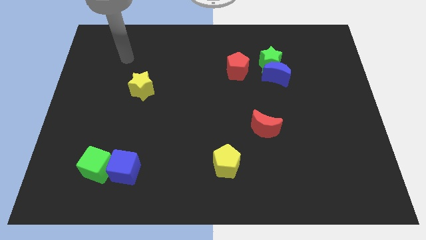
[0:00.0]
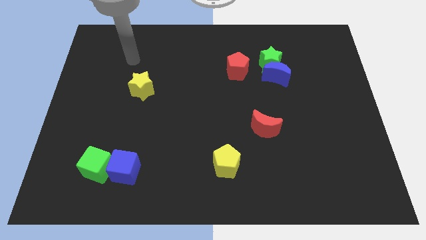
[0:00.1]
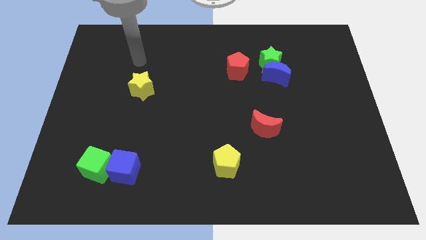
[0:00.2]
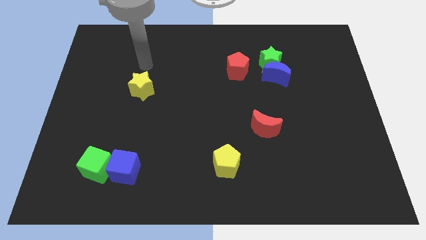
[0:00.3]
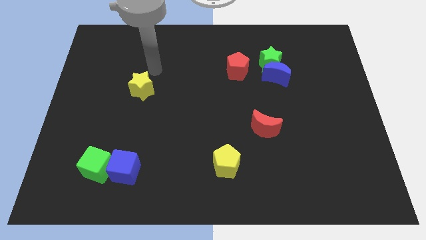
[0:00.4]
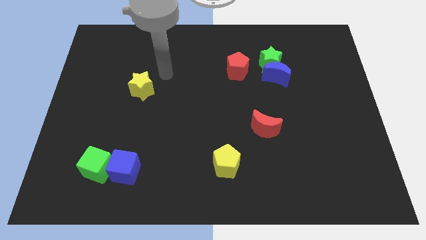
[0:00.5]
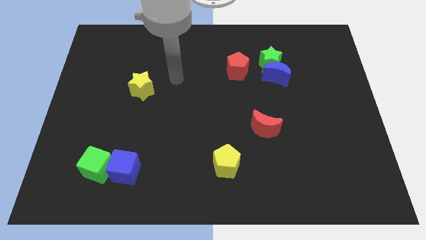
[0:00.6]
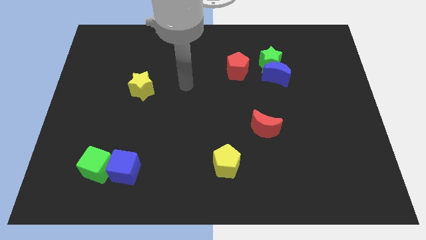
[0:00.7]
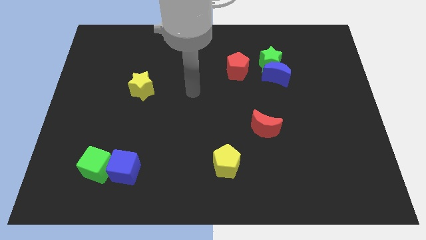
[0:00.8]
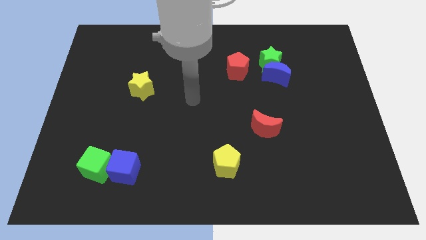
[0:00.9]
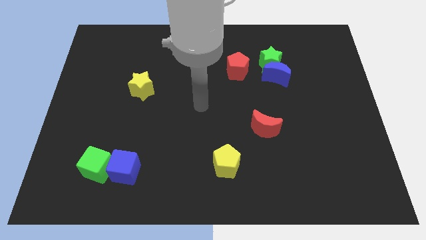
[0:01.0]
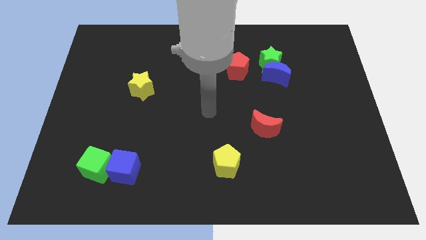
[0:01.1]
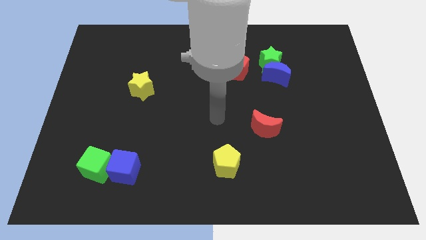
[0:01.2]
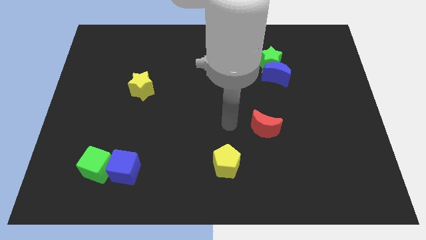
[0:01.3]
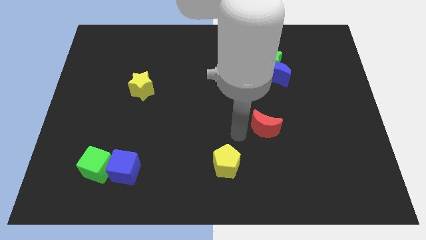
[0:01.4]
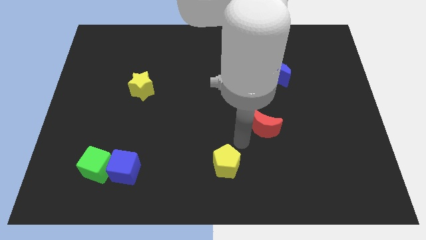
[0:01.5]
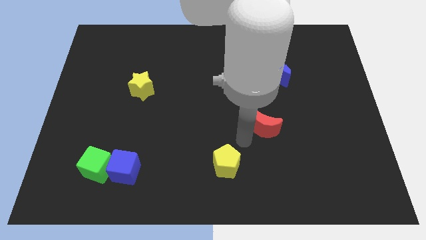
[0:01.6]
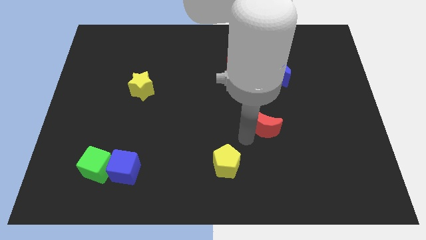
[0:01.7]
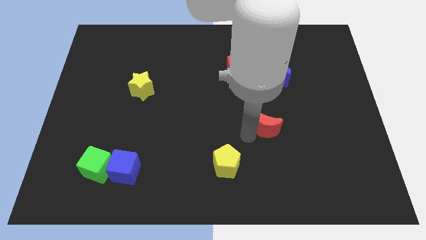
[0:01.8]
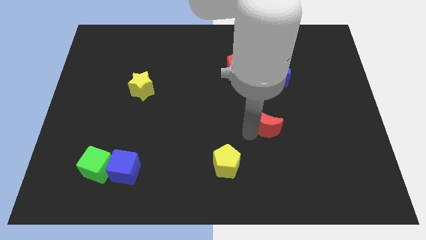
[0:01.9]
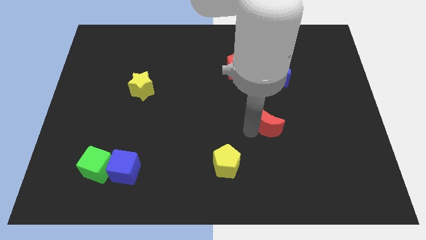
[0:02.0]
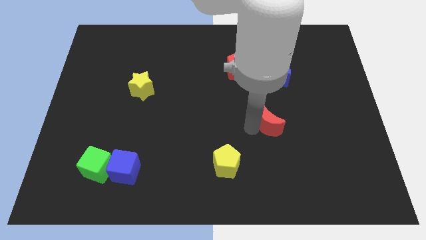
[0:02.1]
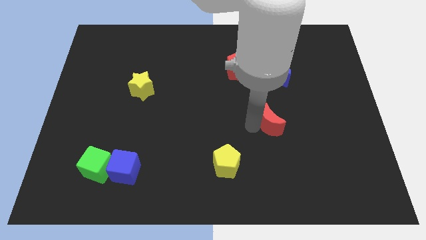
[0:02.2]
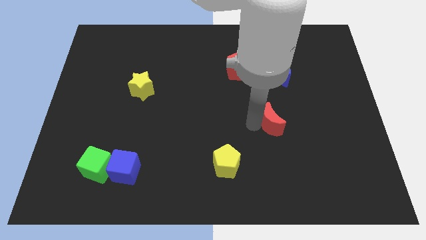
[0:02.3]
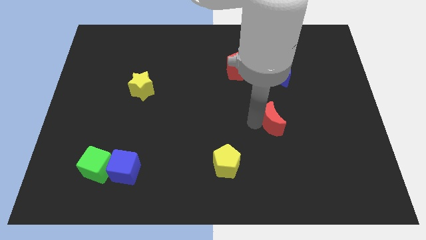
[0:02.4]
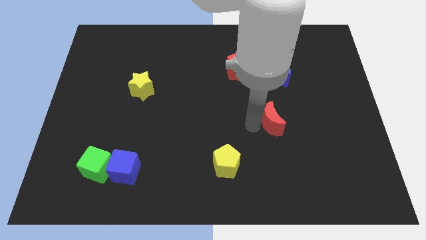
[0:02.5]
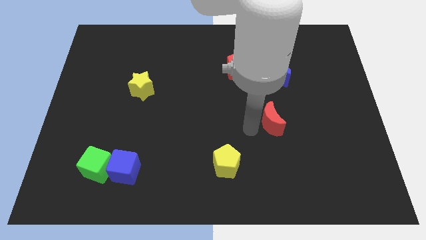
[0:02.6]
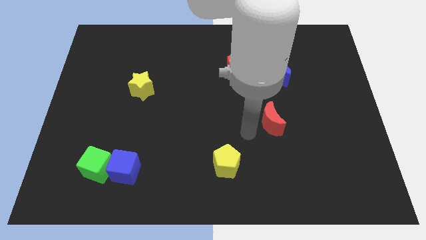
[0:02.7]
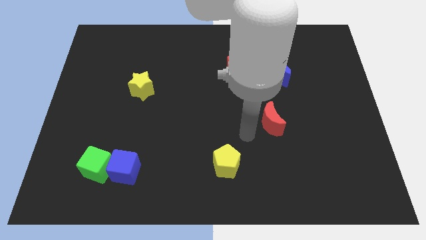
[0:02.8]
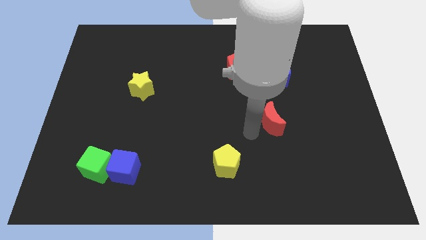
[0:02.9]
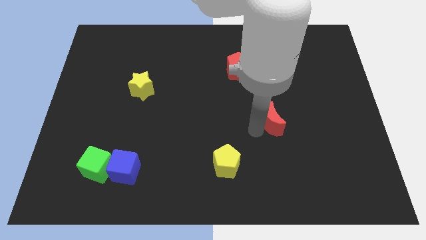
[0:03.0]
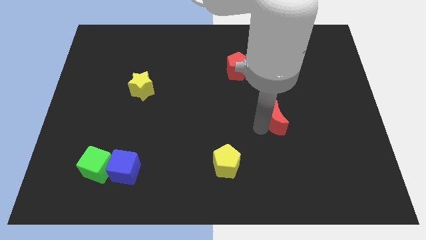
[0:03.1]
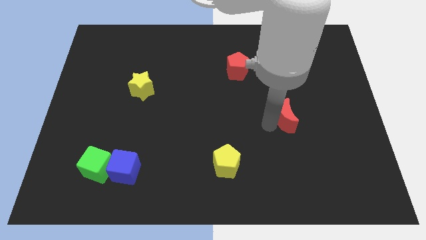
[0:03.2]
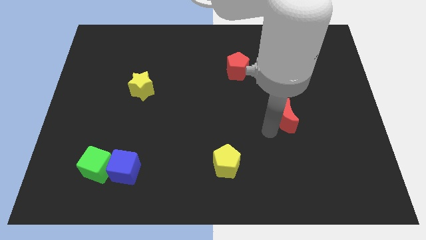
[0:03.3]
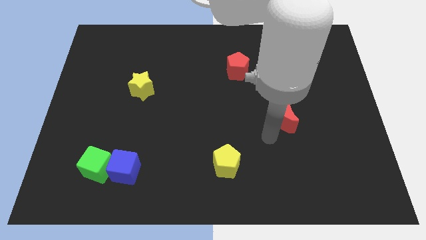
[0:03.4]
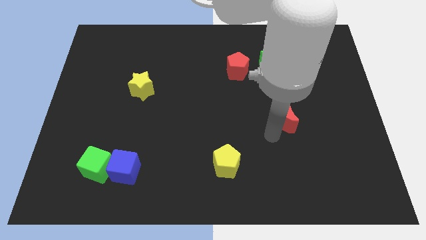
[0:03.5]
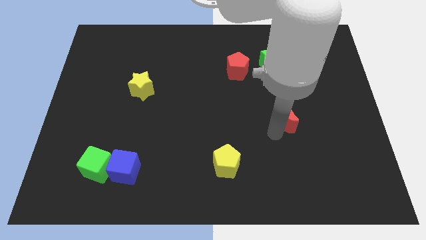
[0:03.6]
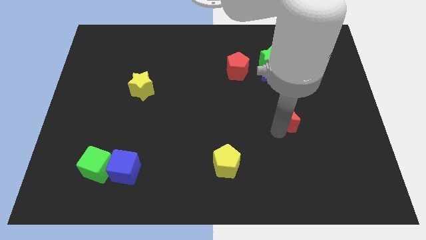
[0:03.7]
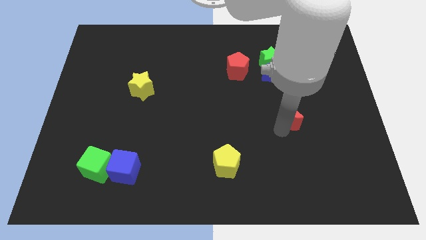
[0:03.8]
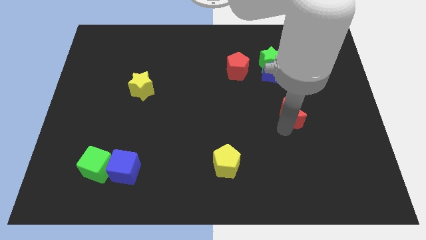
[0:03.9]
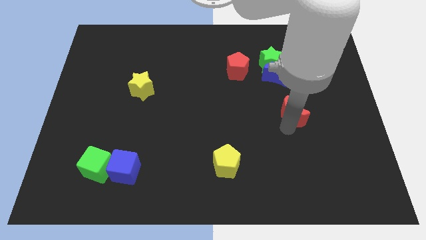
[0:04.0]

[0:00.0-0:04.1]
slide the red moon slightly upwards and right diagonally

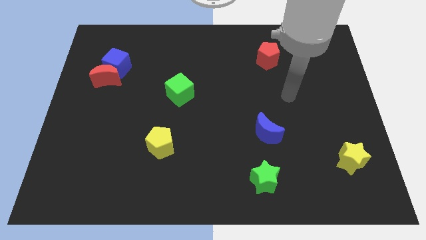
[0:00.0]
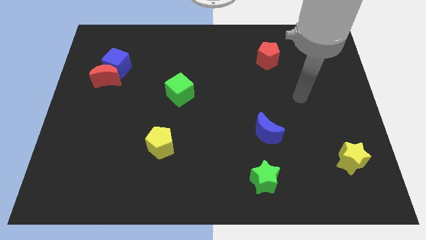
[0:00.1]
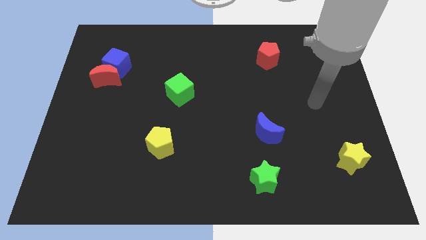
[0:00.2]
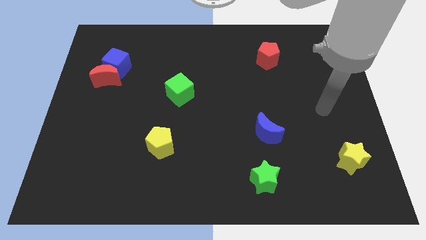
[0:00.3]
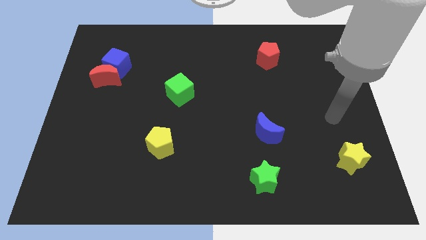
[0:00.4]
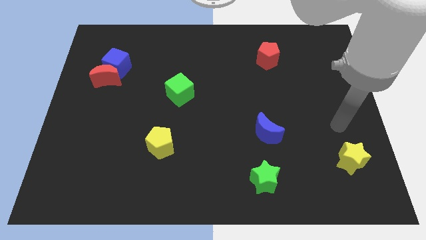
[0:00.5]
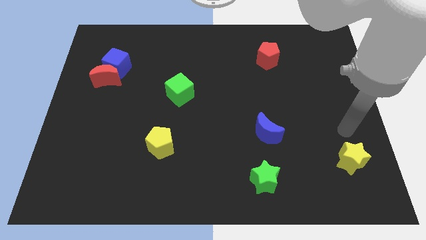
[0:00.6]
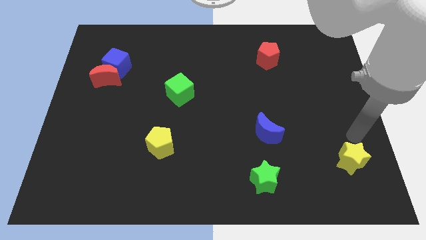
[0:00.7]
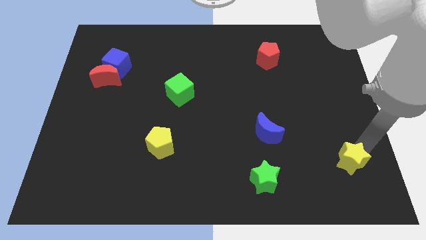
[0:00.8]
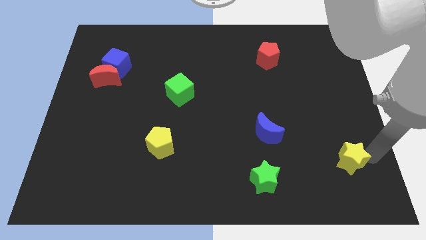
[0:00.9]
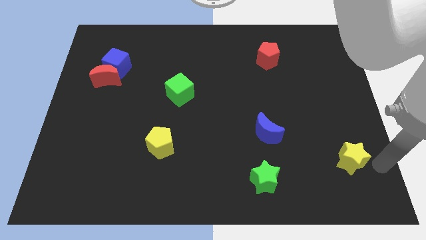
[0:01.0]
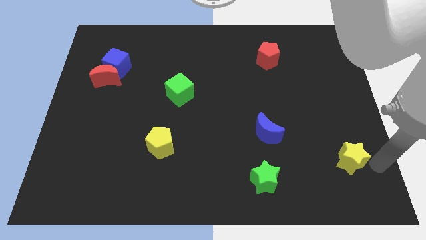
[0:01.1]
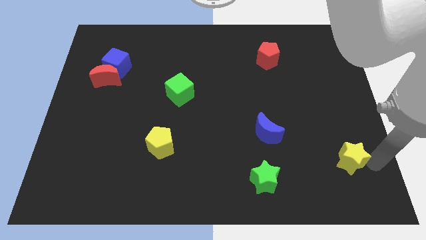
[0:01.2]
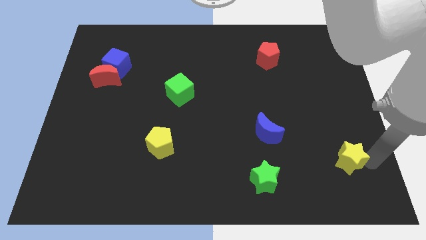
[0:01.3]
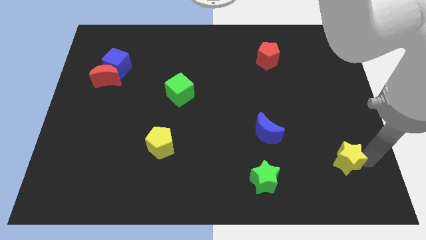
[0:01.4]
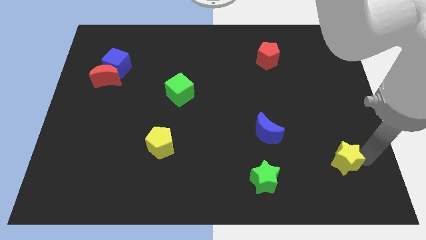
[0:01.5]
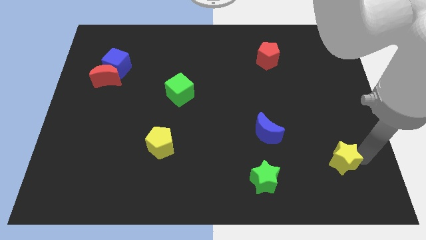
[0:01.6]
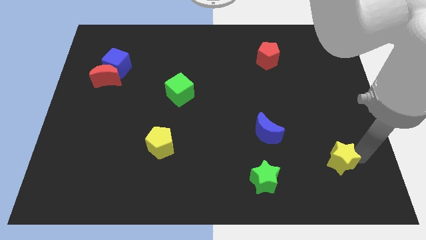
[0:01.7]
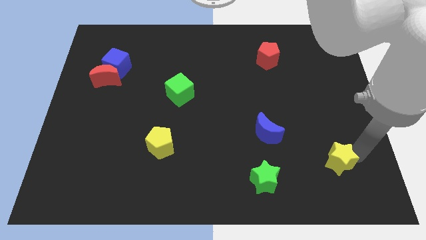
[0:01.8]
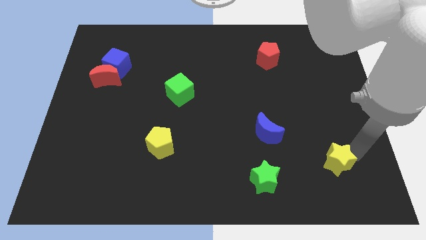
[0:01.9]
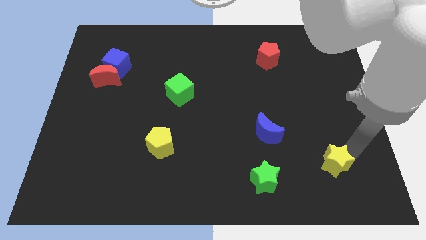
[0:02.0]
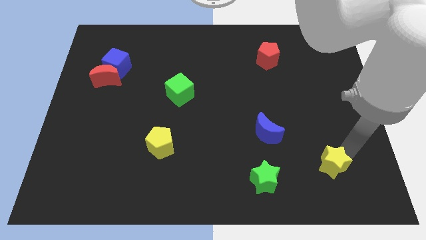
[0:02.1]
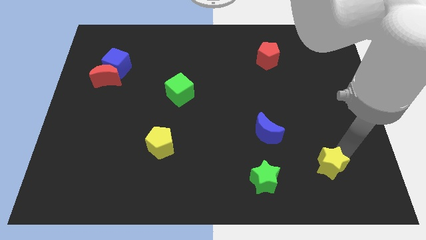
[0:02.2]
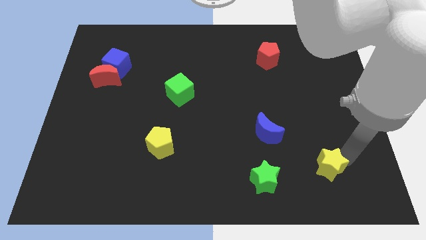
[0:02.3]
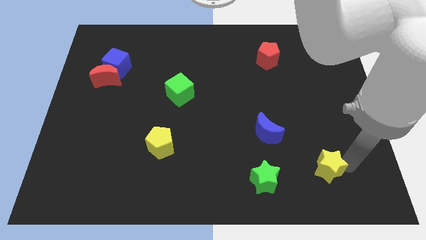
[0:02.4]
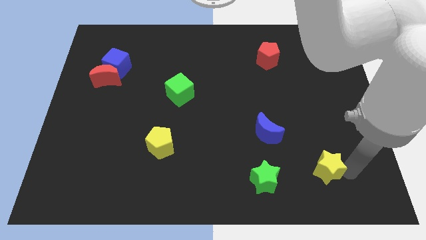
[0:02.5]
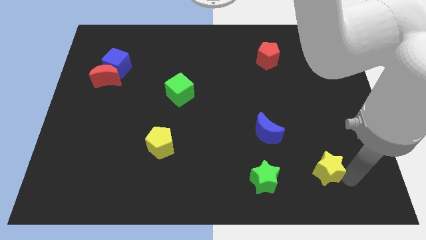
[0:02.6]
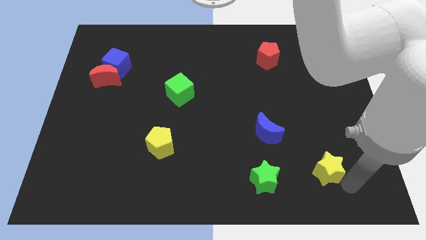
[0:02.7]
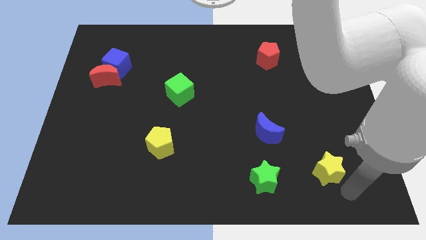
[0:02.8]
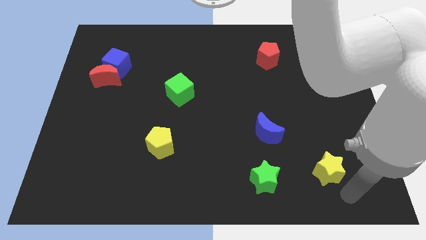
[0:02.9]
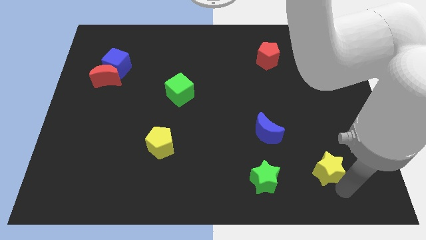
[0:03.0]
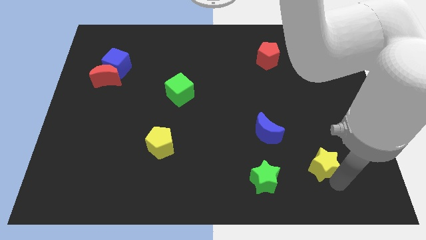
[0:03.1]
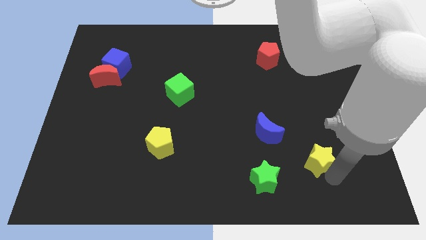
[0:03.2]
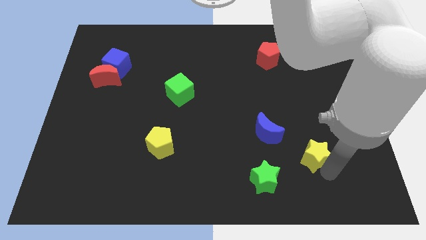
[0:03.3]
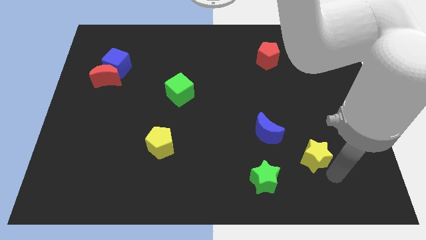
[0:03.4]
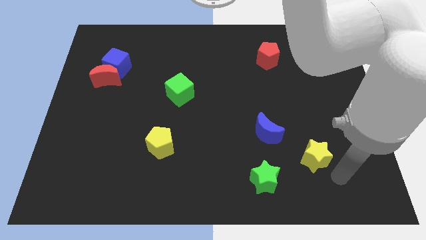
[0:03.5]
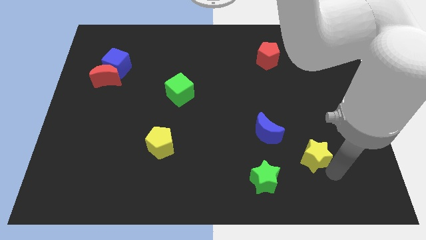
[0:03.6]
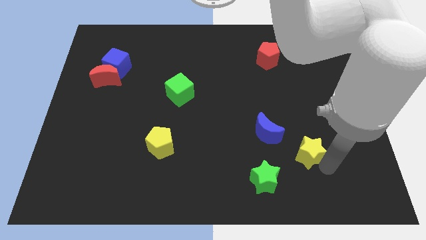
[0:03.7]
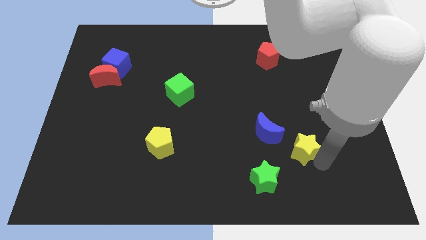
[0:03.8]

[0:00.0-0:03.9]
push the yellow star upwards and then left slightly
